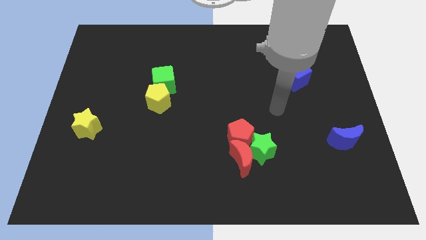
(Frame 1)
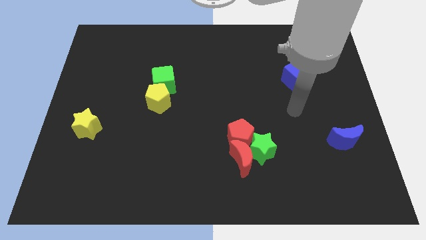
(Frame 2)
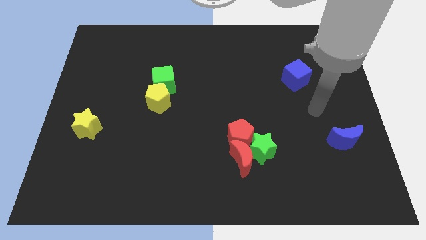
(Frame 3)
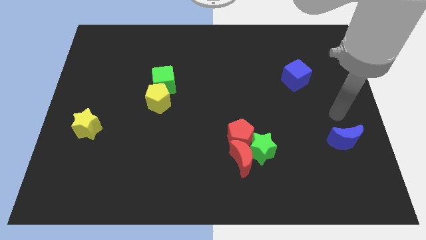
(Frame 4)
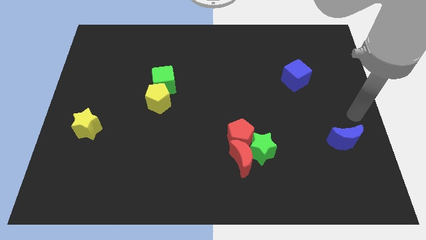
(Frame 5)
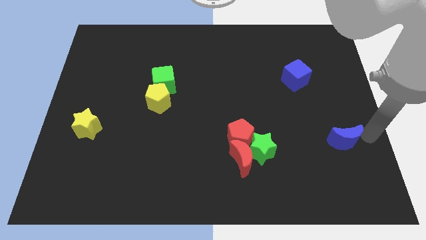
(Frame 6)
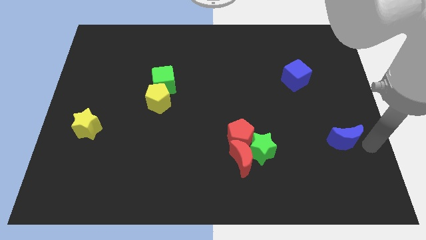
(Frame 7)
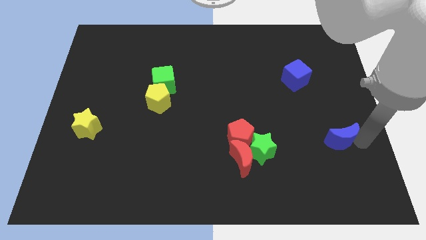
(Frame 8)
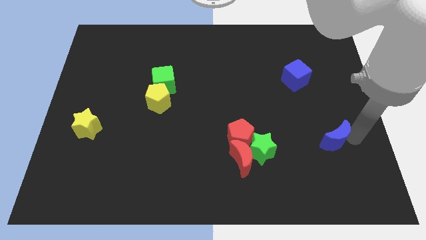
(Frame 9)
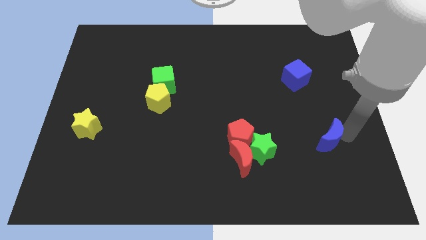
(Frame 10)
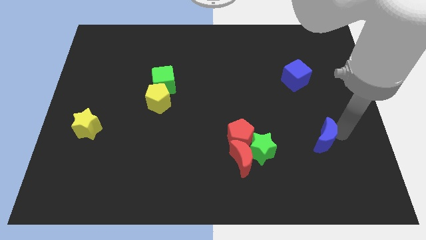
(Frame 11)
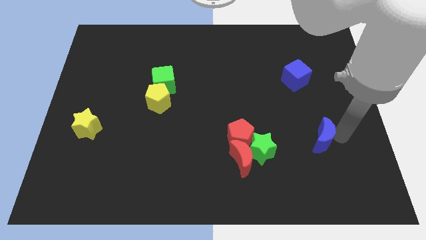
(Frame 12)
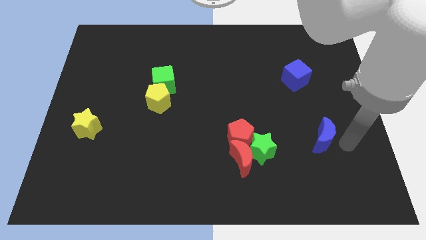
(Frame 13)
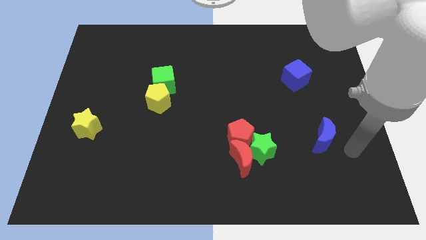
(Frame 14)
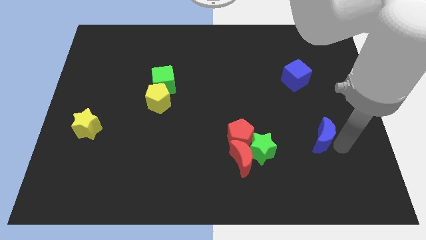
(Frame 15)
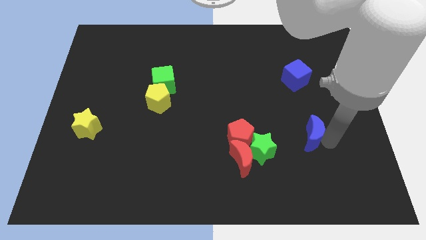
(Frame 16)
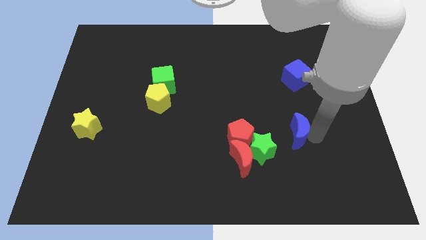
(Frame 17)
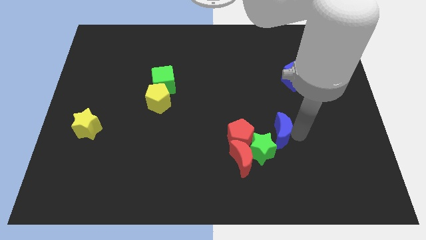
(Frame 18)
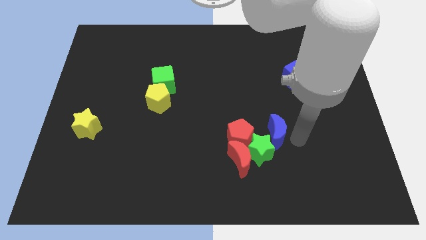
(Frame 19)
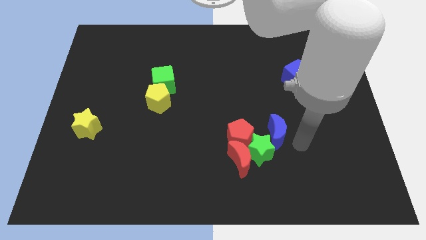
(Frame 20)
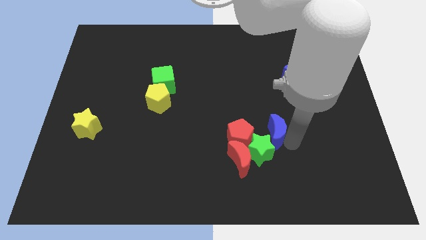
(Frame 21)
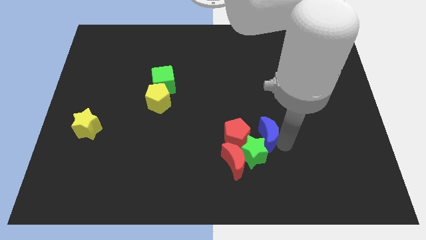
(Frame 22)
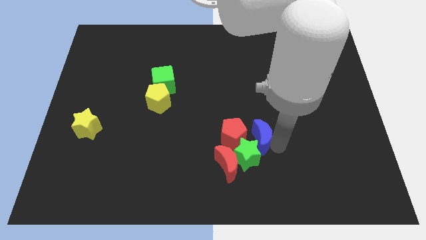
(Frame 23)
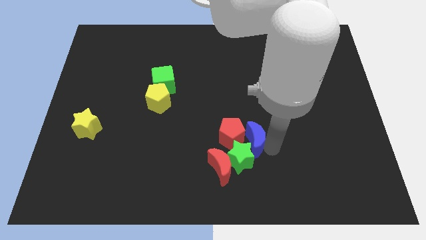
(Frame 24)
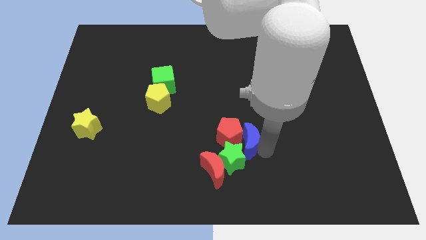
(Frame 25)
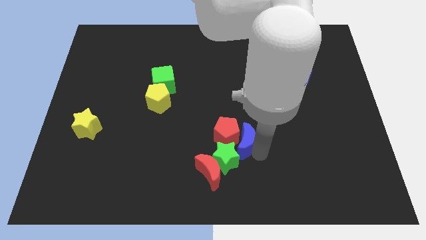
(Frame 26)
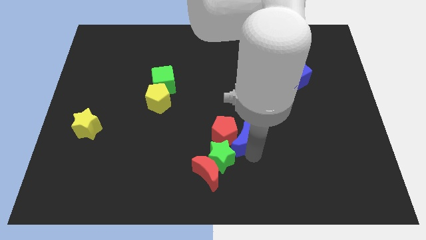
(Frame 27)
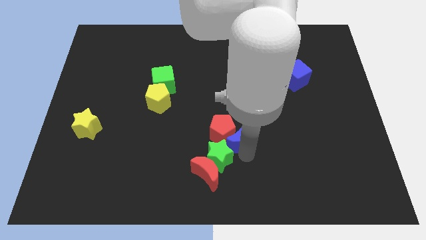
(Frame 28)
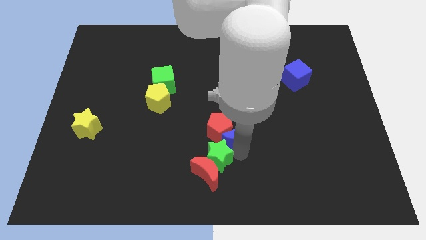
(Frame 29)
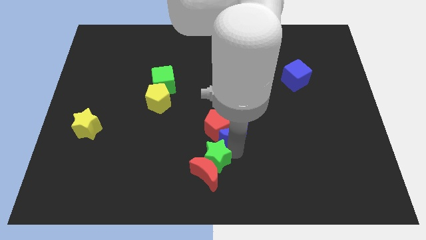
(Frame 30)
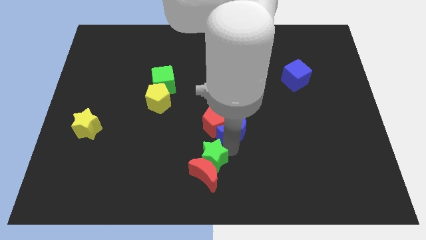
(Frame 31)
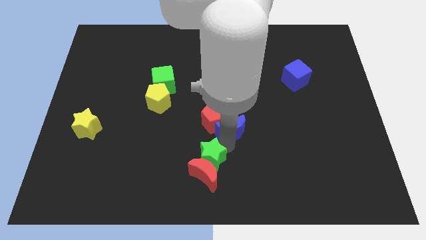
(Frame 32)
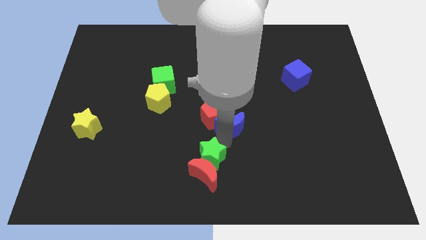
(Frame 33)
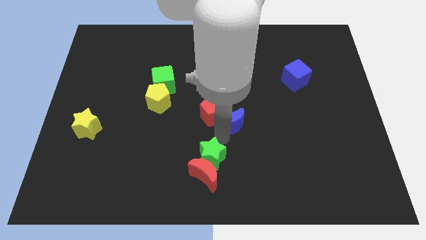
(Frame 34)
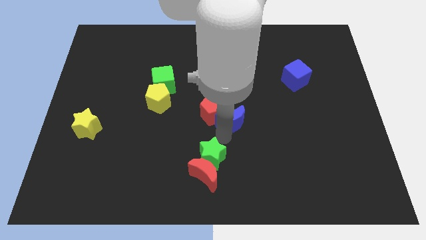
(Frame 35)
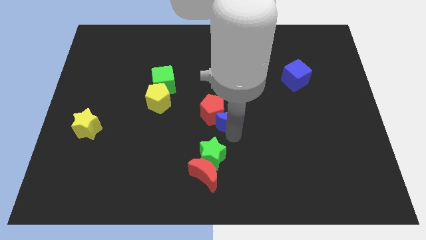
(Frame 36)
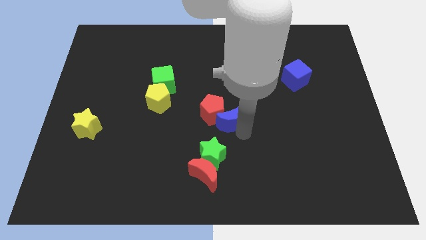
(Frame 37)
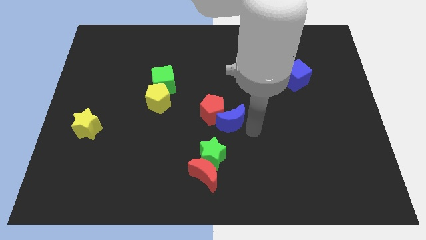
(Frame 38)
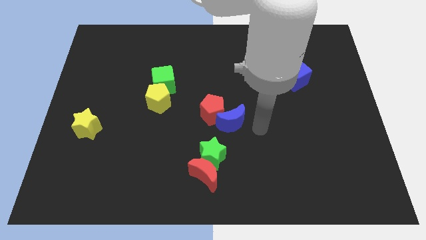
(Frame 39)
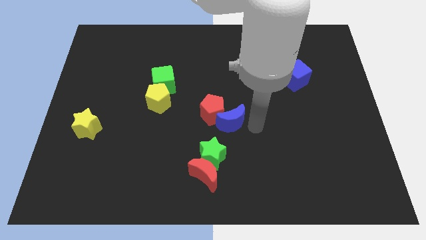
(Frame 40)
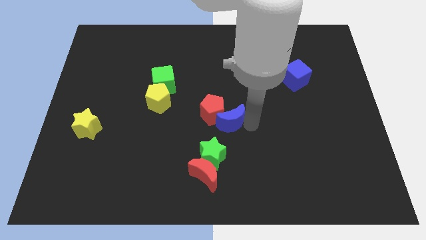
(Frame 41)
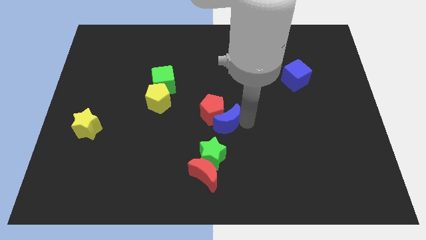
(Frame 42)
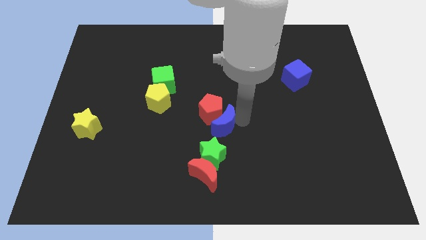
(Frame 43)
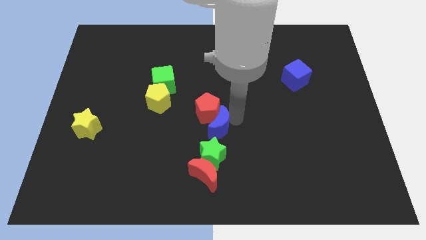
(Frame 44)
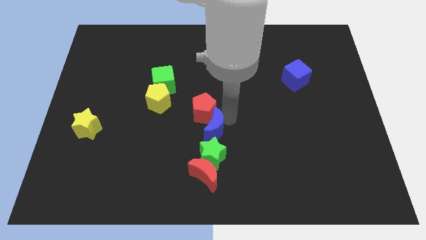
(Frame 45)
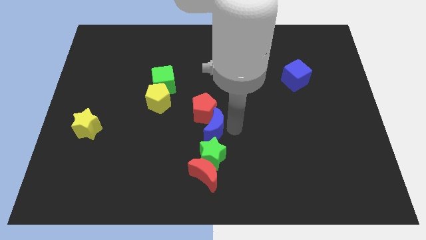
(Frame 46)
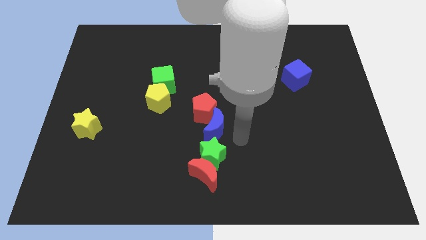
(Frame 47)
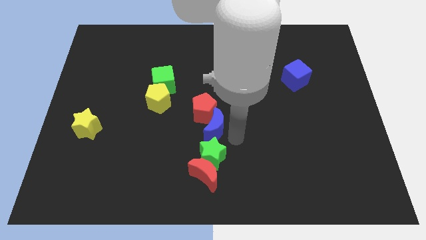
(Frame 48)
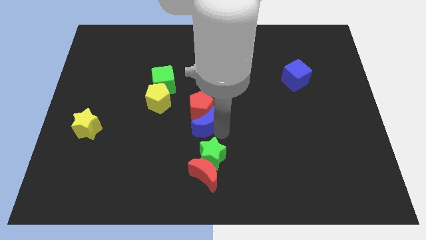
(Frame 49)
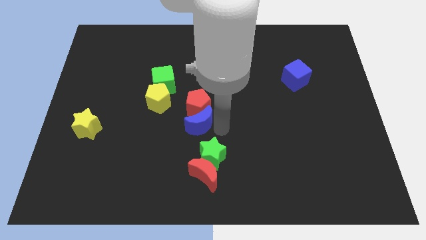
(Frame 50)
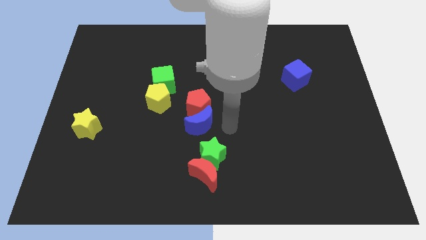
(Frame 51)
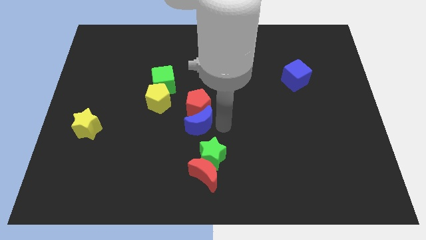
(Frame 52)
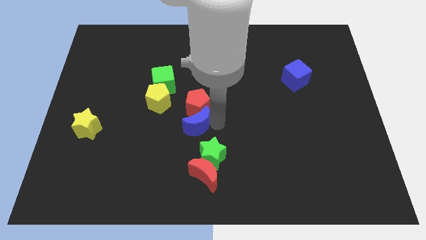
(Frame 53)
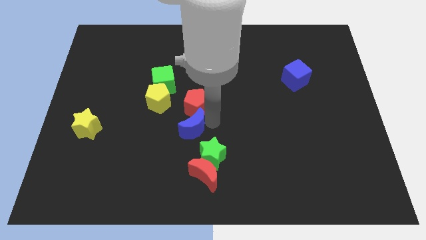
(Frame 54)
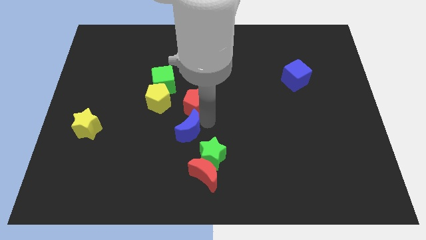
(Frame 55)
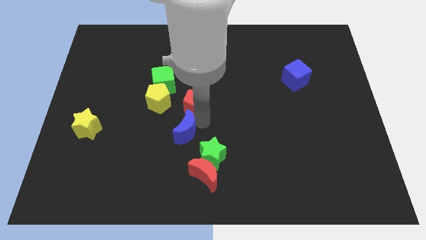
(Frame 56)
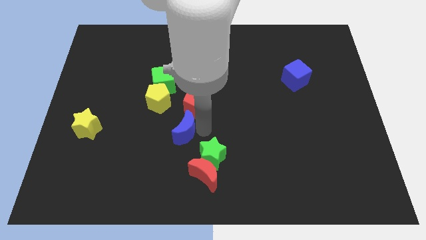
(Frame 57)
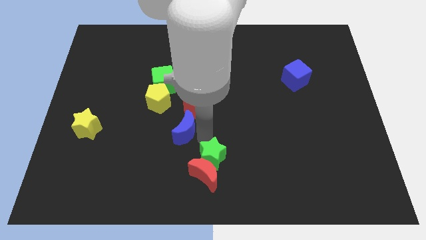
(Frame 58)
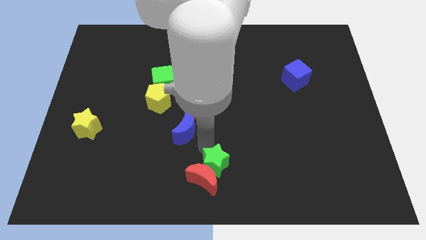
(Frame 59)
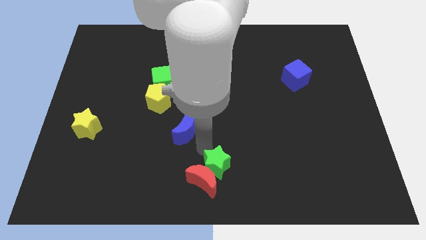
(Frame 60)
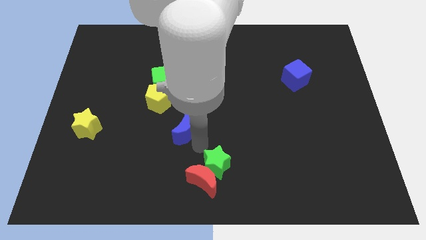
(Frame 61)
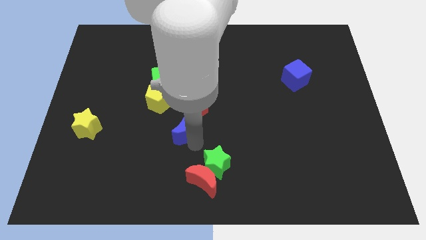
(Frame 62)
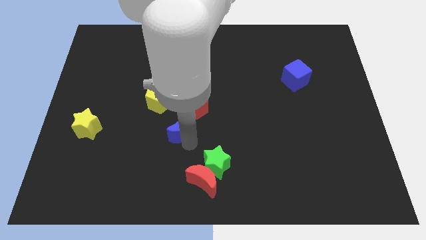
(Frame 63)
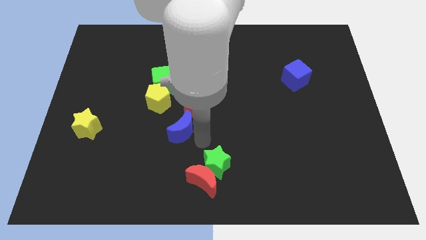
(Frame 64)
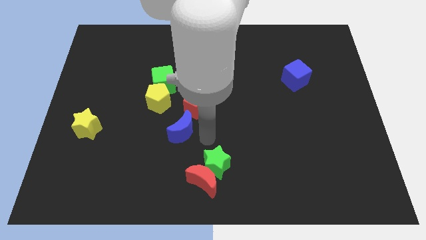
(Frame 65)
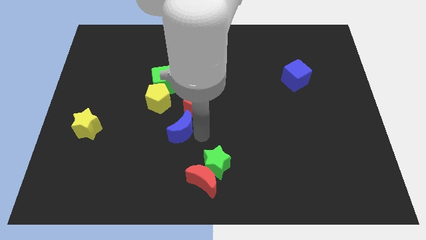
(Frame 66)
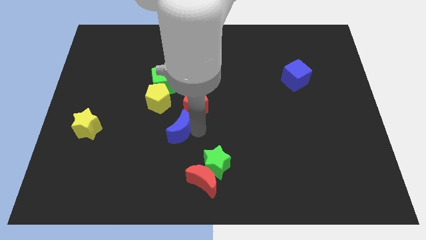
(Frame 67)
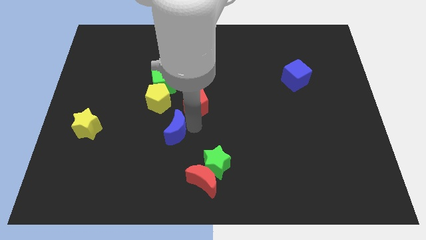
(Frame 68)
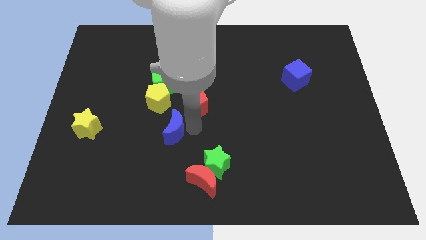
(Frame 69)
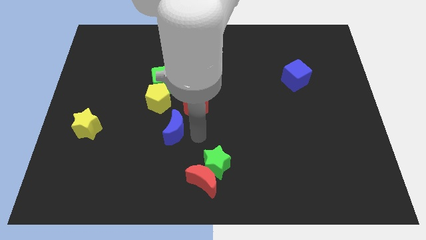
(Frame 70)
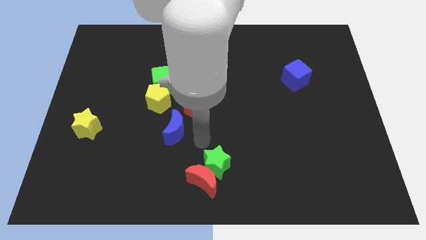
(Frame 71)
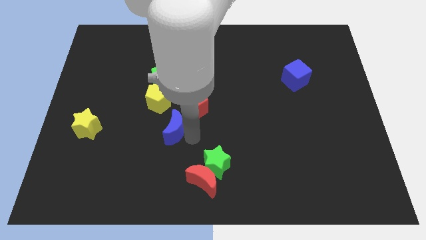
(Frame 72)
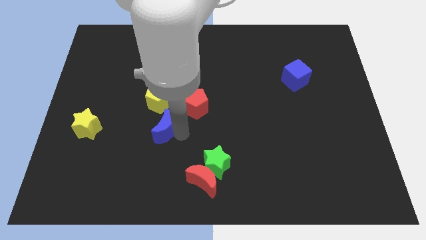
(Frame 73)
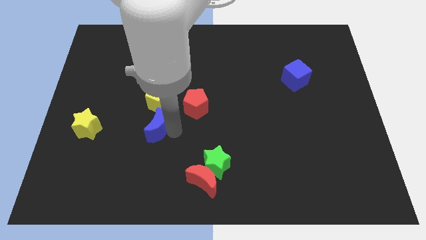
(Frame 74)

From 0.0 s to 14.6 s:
push the blue moon to the right side of the yellow star
